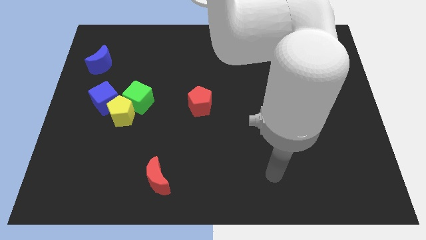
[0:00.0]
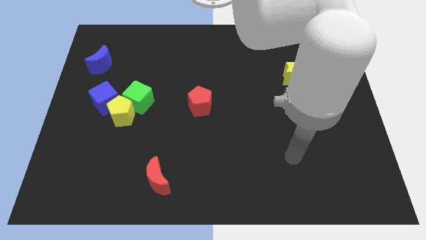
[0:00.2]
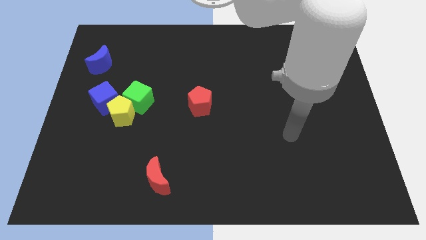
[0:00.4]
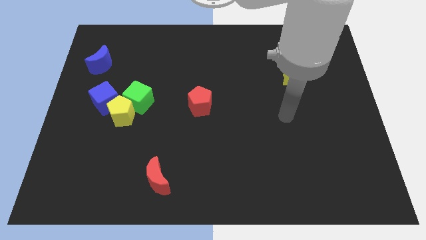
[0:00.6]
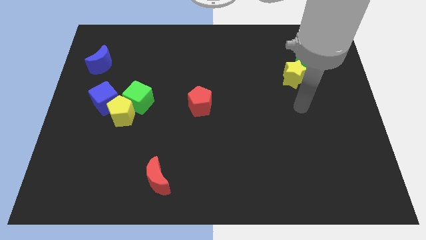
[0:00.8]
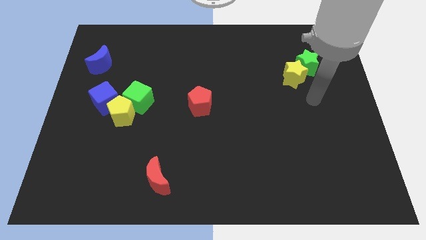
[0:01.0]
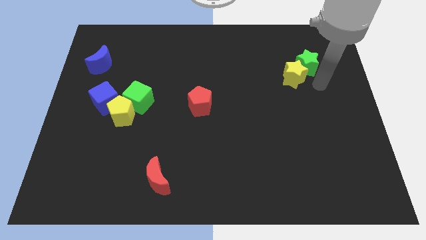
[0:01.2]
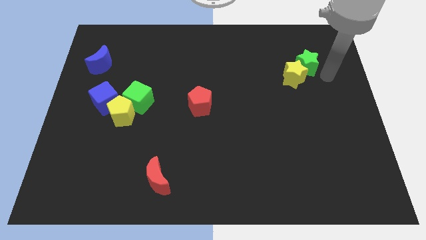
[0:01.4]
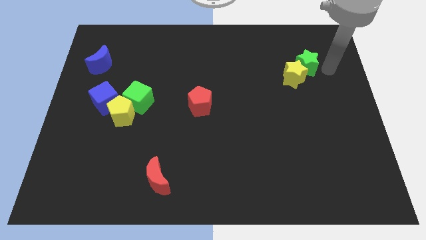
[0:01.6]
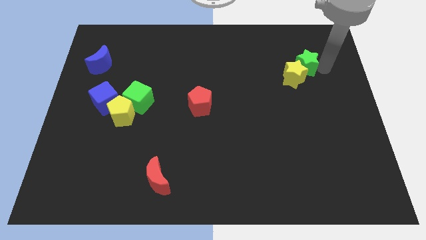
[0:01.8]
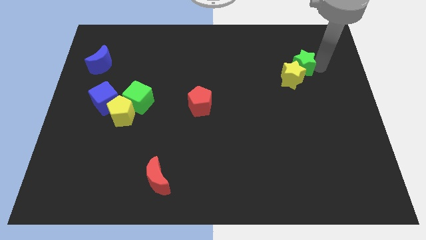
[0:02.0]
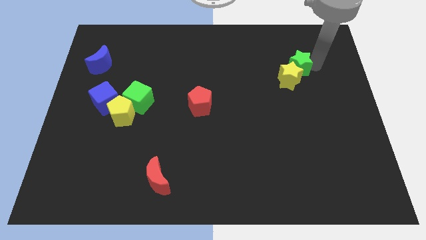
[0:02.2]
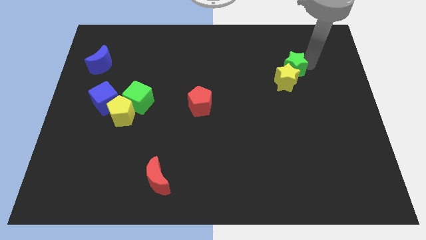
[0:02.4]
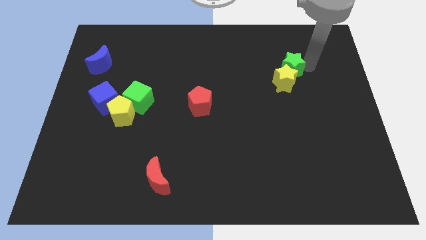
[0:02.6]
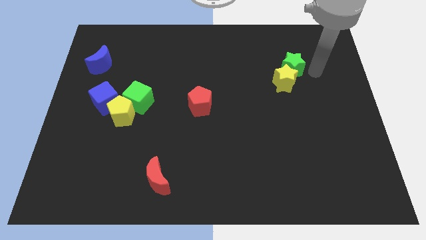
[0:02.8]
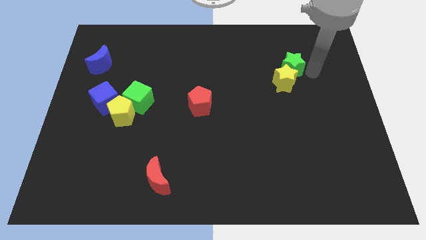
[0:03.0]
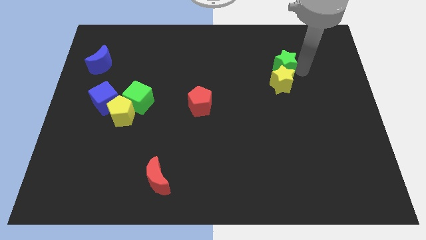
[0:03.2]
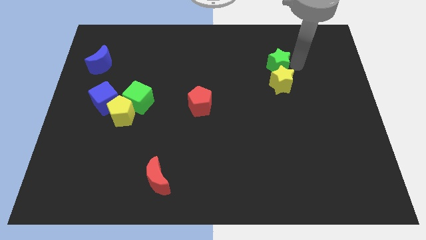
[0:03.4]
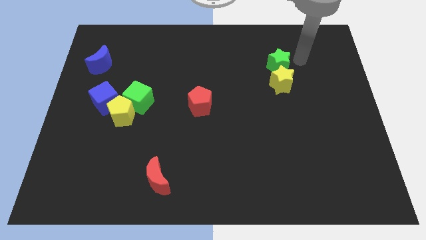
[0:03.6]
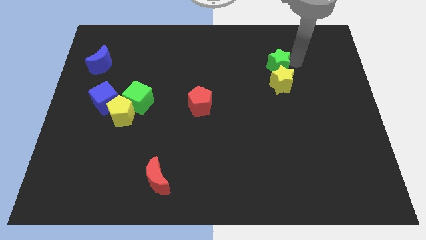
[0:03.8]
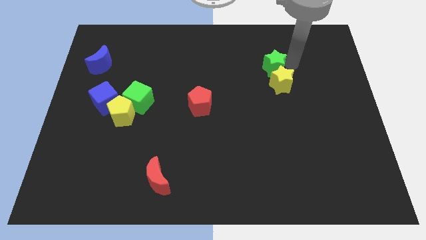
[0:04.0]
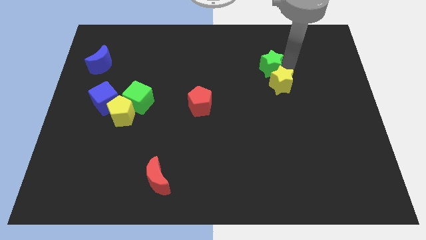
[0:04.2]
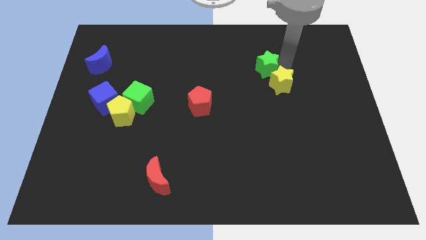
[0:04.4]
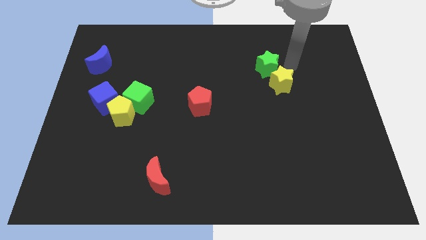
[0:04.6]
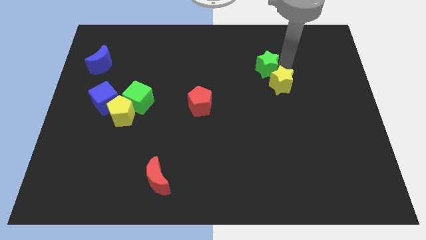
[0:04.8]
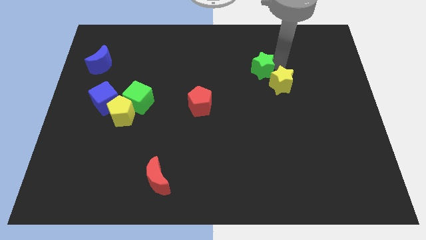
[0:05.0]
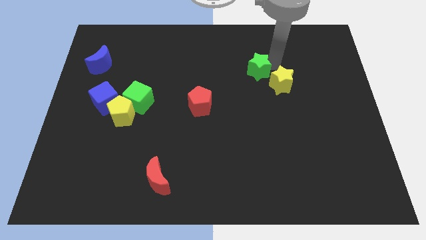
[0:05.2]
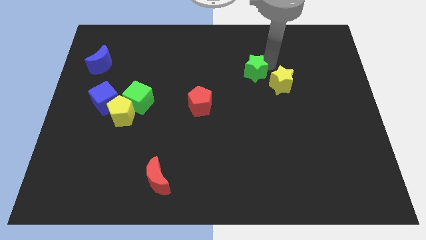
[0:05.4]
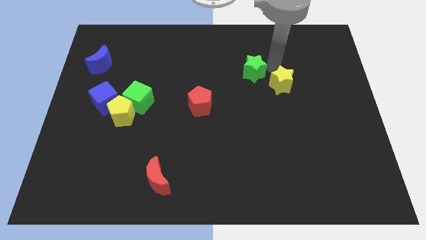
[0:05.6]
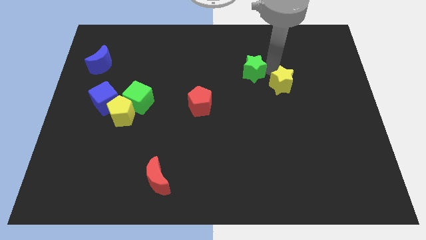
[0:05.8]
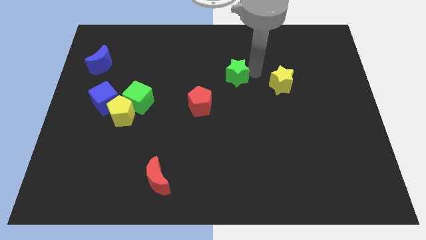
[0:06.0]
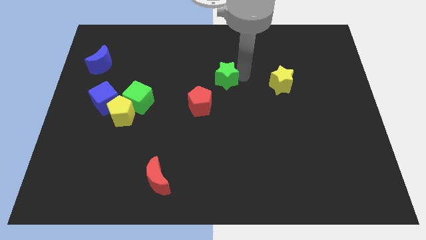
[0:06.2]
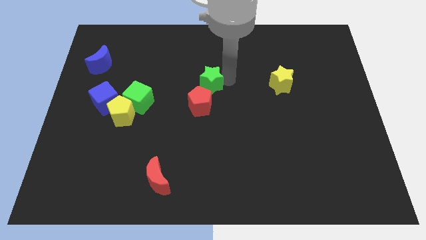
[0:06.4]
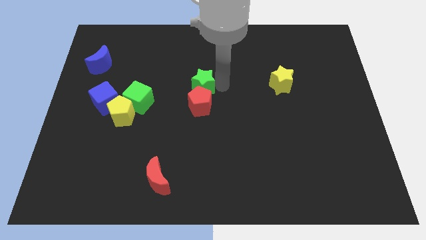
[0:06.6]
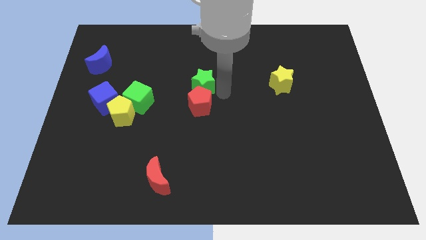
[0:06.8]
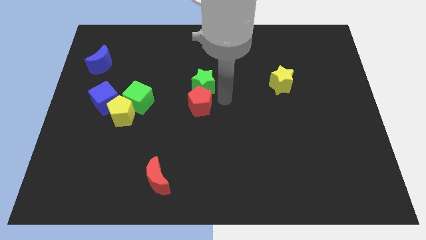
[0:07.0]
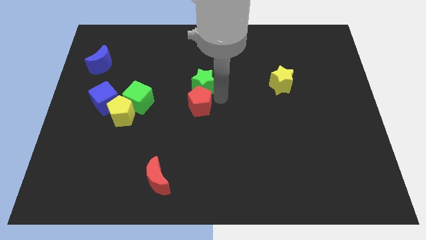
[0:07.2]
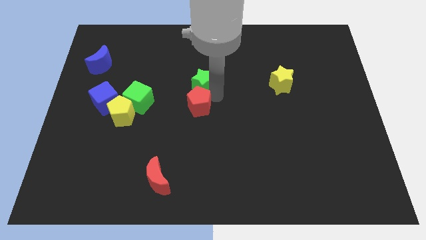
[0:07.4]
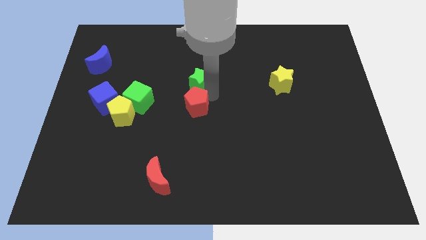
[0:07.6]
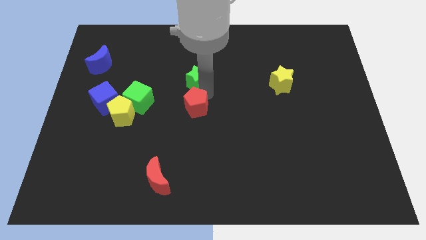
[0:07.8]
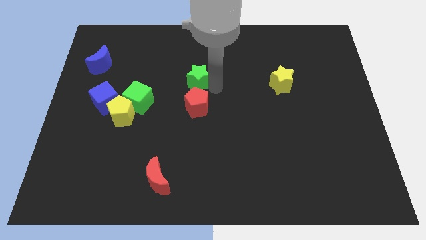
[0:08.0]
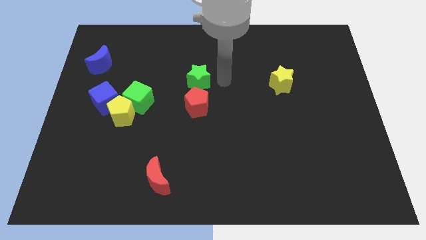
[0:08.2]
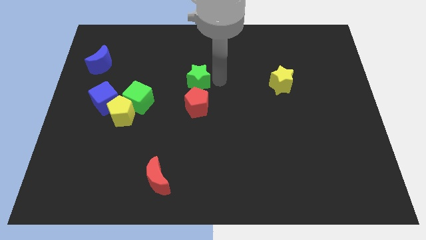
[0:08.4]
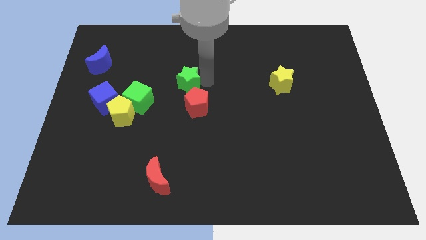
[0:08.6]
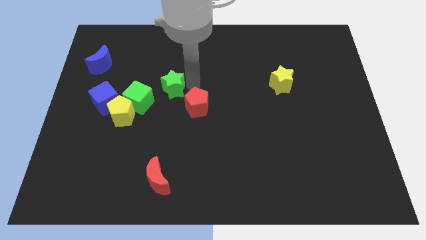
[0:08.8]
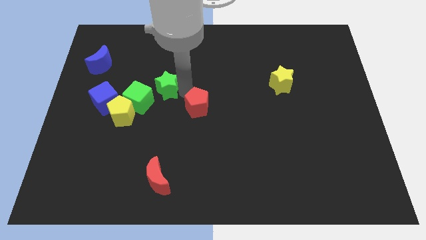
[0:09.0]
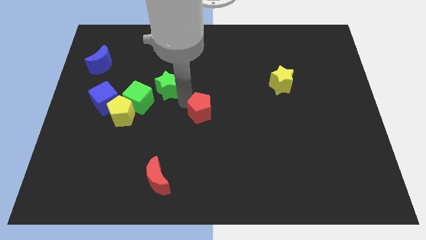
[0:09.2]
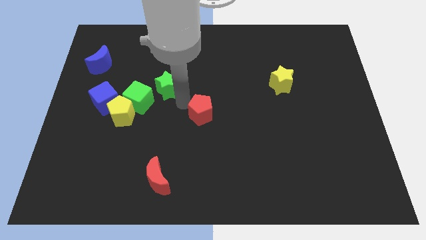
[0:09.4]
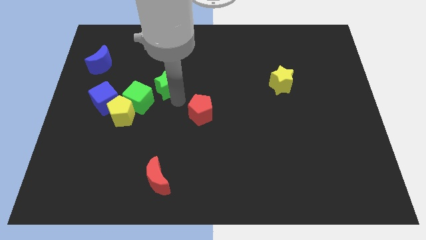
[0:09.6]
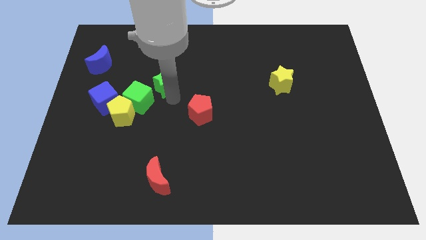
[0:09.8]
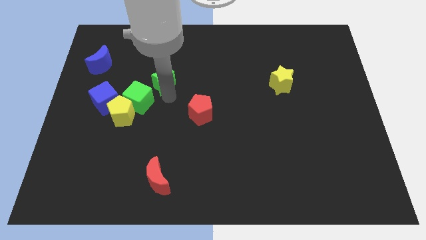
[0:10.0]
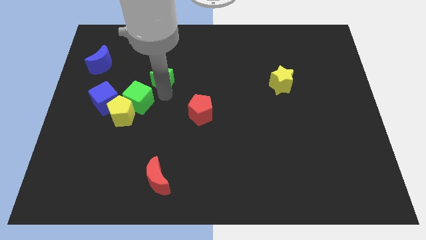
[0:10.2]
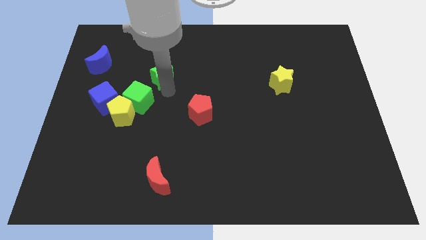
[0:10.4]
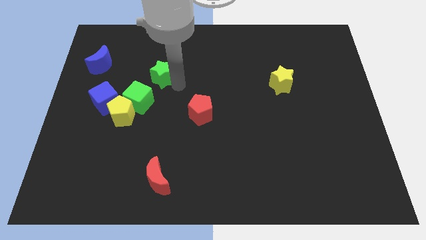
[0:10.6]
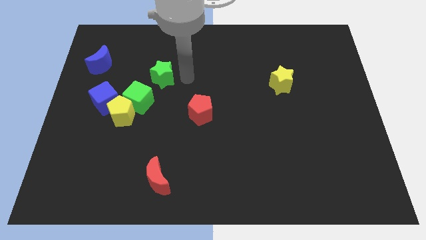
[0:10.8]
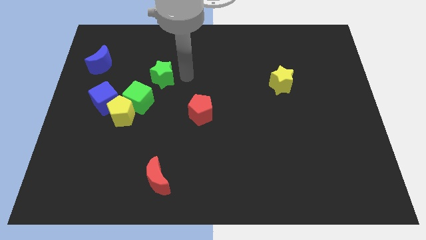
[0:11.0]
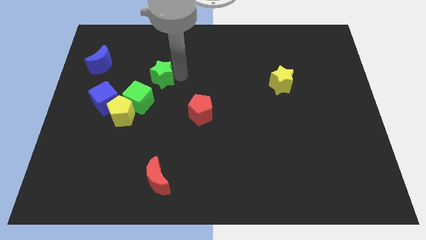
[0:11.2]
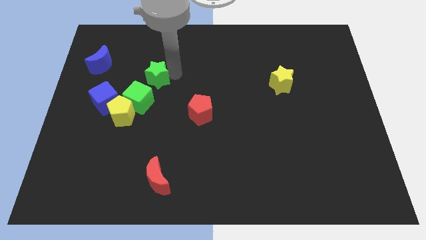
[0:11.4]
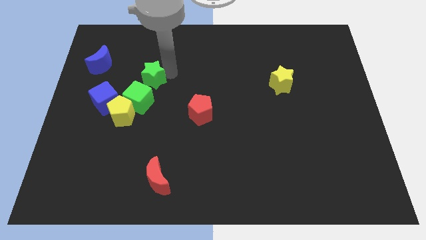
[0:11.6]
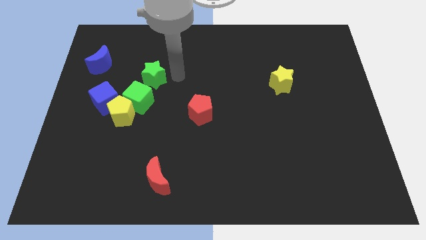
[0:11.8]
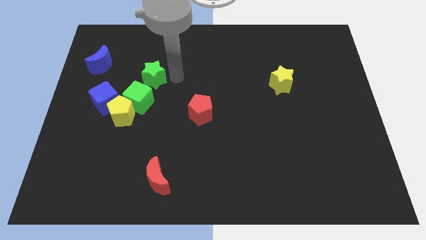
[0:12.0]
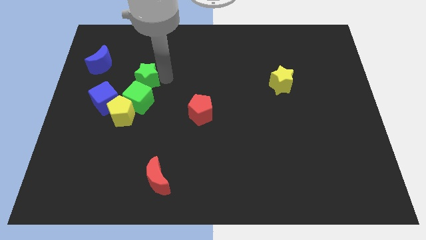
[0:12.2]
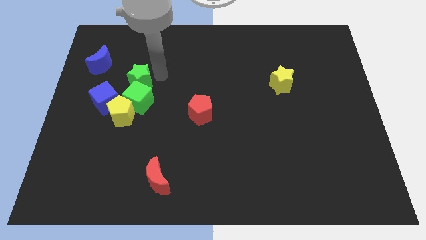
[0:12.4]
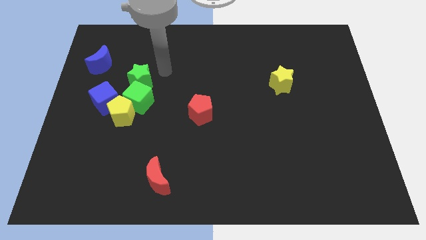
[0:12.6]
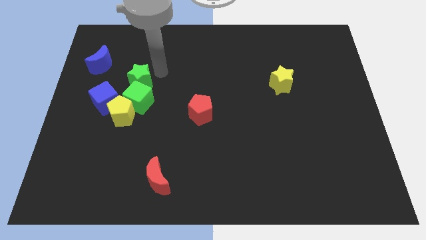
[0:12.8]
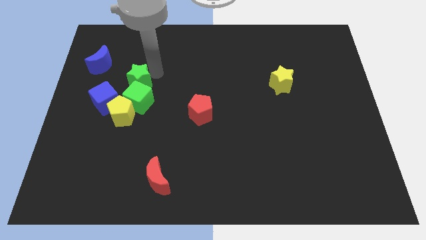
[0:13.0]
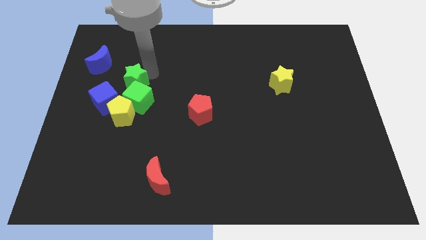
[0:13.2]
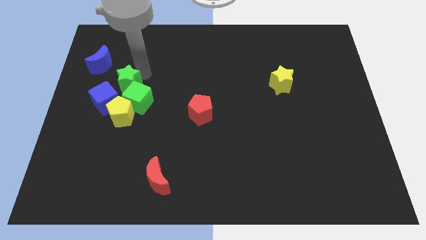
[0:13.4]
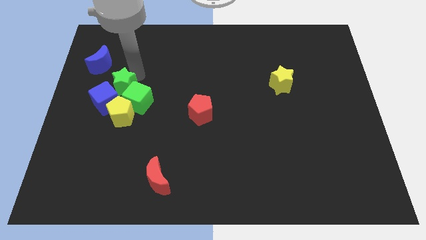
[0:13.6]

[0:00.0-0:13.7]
slide the green star towards the blue cube
